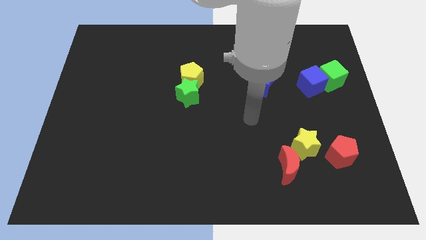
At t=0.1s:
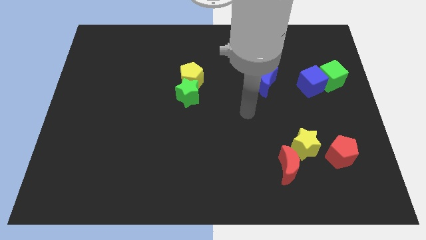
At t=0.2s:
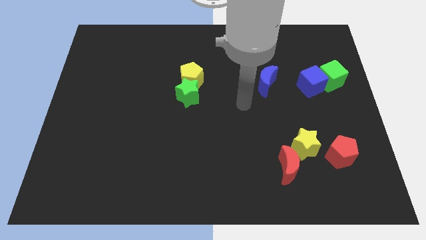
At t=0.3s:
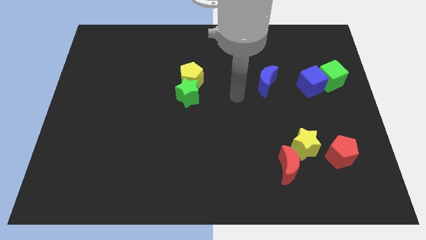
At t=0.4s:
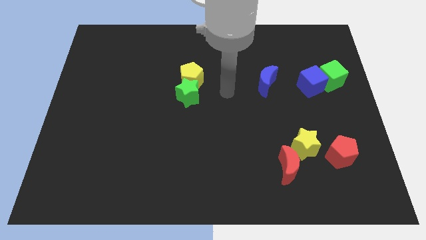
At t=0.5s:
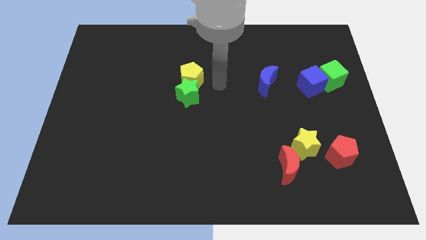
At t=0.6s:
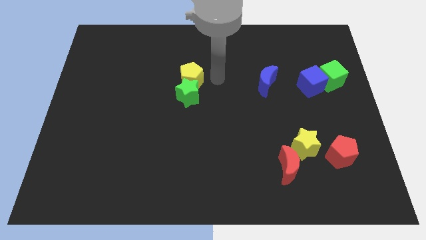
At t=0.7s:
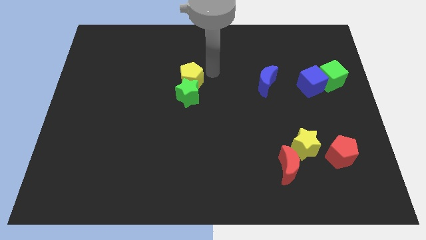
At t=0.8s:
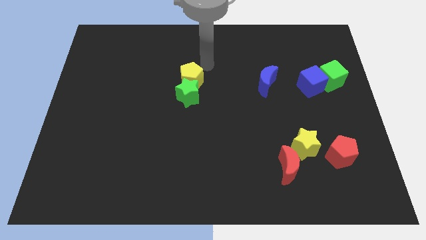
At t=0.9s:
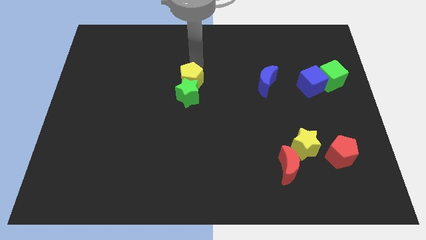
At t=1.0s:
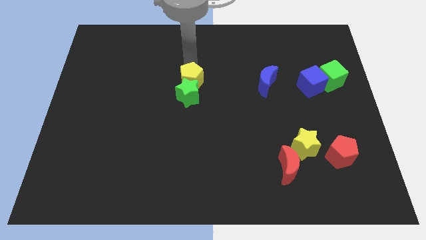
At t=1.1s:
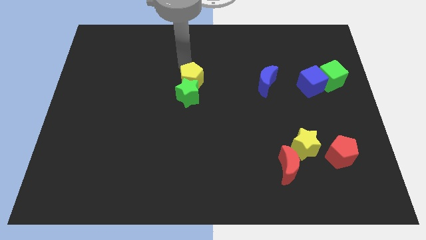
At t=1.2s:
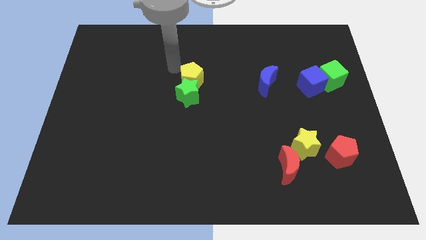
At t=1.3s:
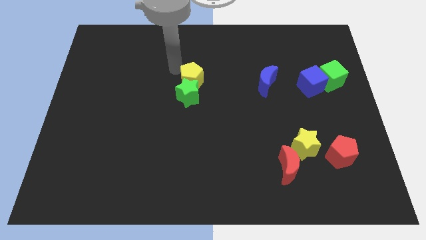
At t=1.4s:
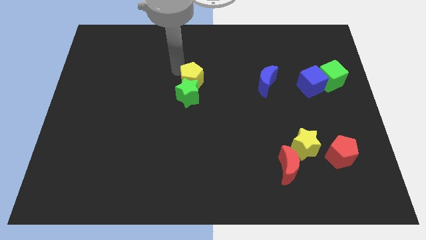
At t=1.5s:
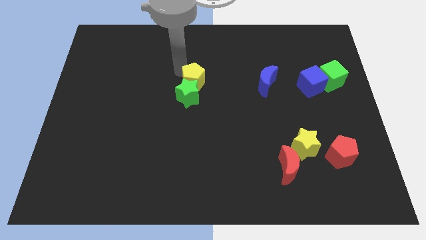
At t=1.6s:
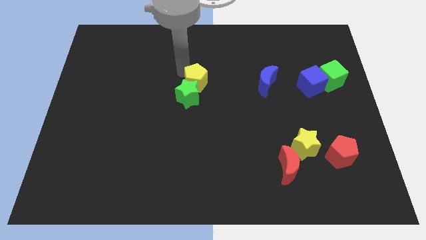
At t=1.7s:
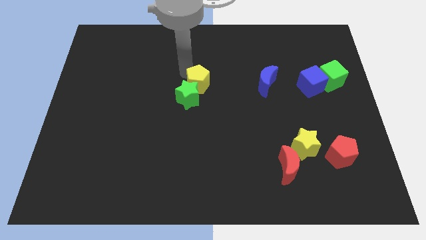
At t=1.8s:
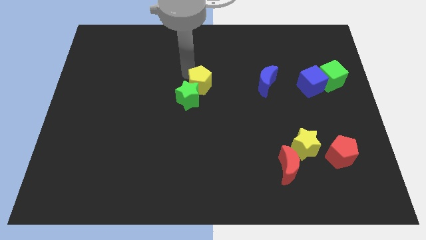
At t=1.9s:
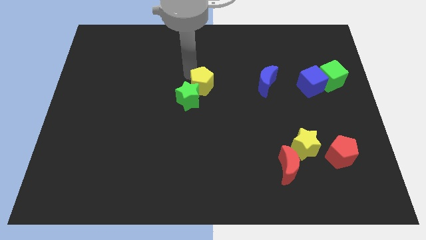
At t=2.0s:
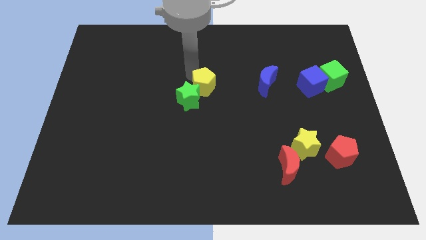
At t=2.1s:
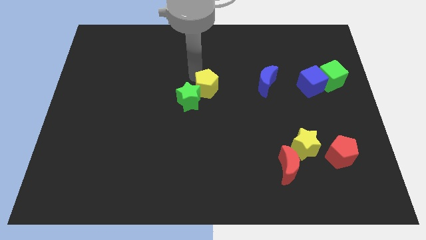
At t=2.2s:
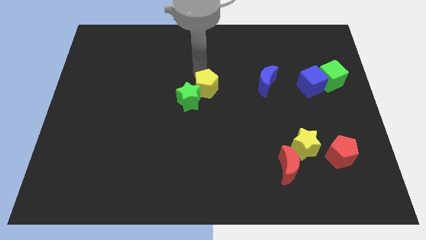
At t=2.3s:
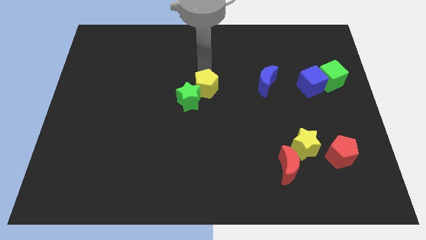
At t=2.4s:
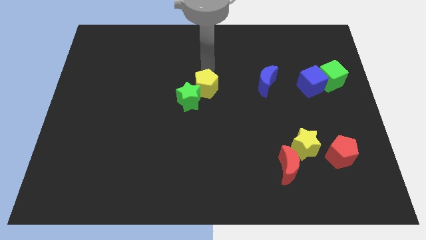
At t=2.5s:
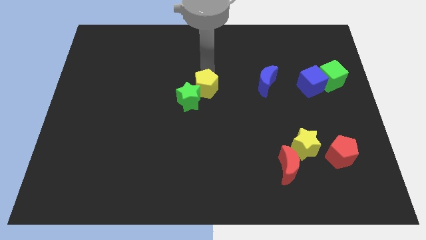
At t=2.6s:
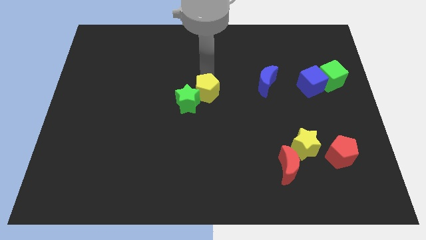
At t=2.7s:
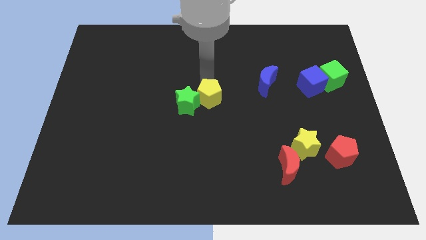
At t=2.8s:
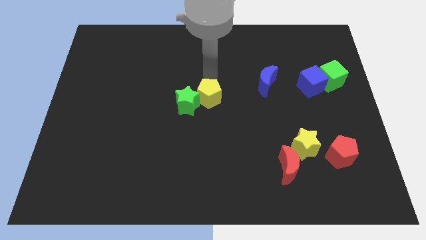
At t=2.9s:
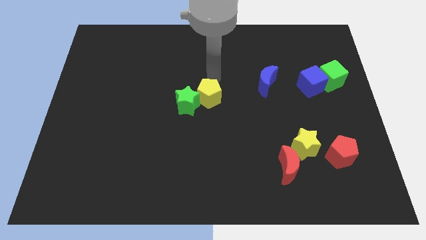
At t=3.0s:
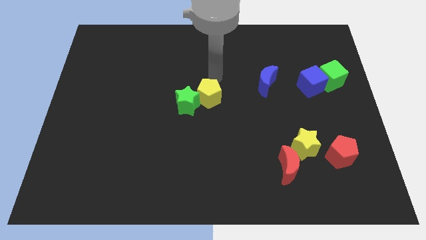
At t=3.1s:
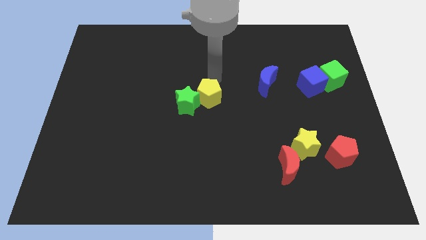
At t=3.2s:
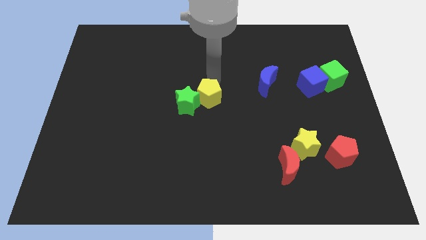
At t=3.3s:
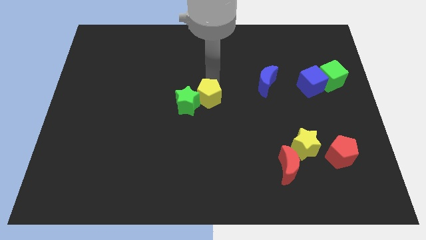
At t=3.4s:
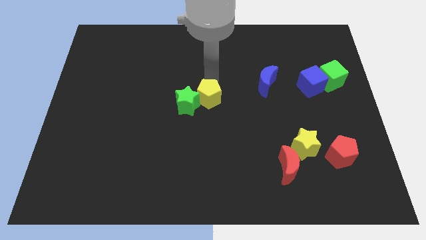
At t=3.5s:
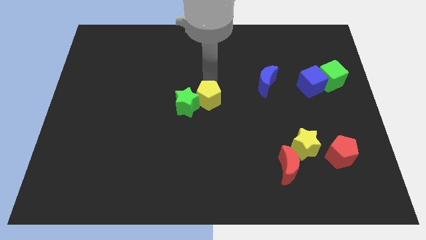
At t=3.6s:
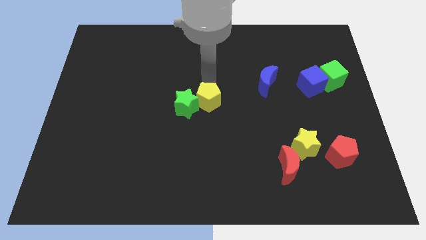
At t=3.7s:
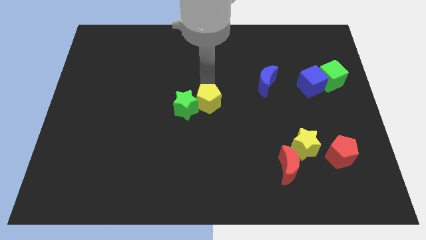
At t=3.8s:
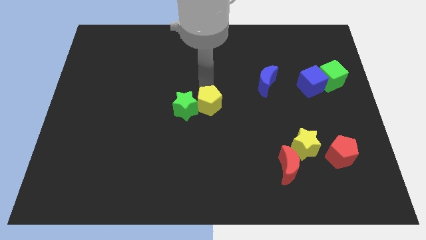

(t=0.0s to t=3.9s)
move the yellow pentagon somewhat downwards

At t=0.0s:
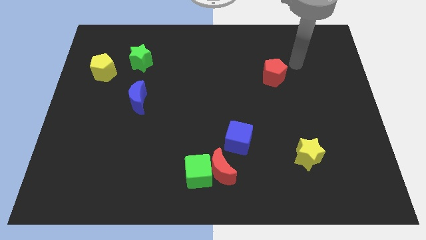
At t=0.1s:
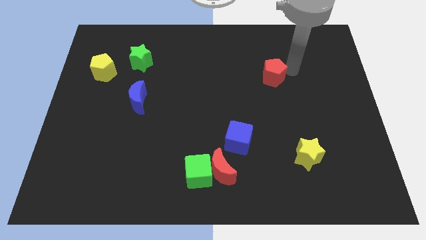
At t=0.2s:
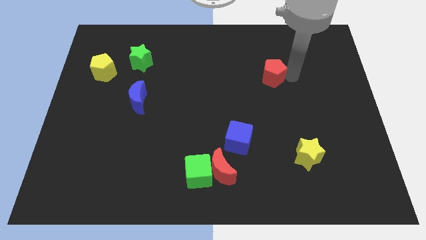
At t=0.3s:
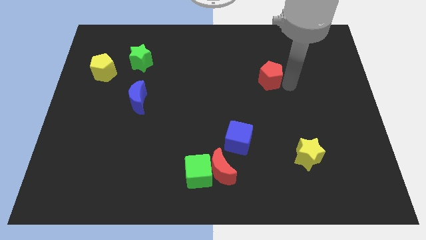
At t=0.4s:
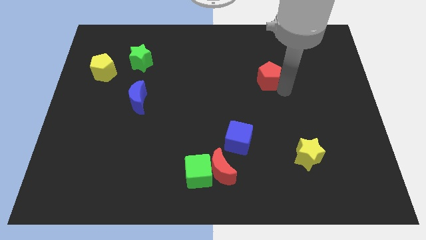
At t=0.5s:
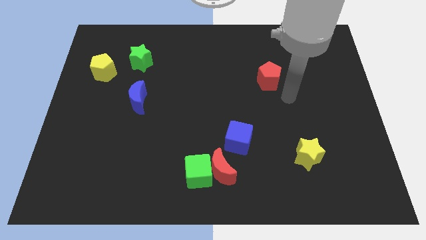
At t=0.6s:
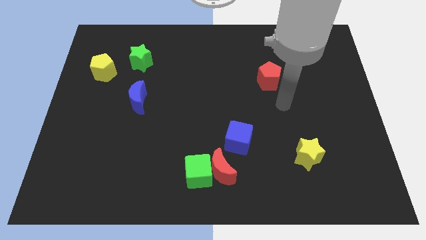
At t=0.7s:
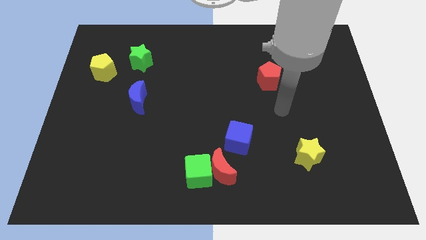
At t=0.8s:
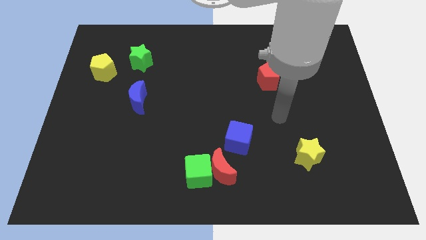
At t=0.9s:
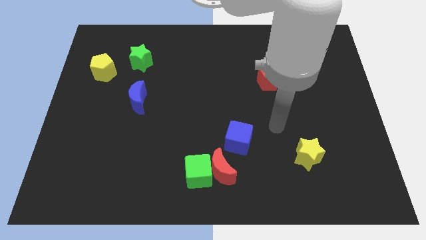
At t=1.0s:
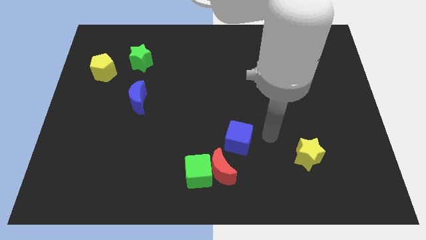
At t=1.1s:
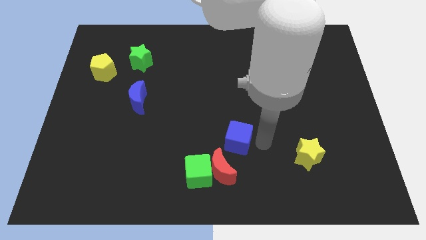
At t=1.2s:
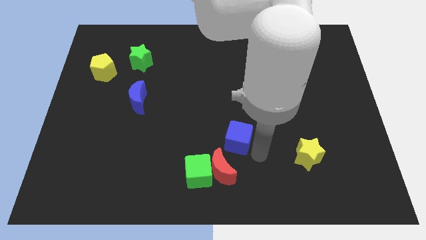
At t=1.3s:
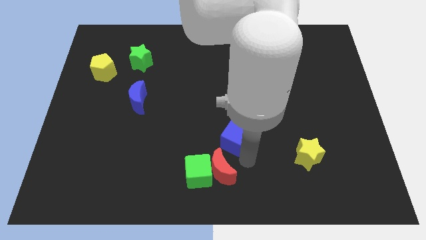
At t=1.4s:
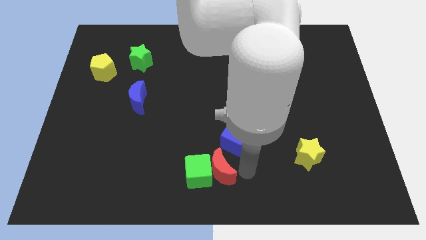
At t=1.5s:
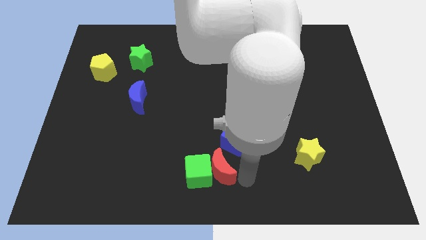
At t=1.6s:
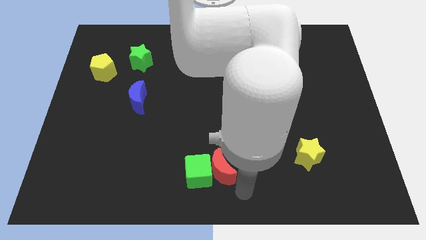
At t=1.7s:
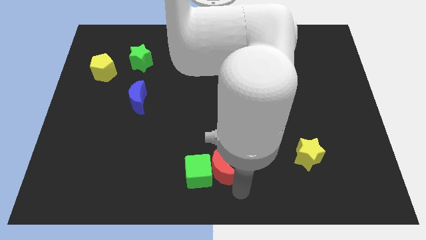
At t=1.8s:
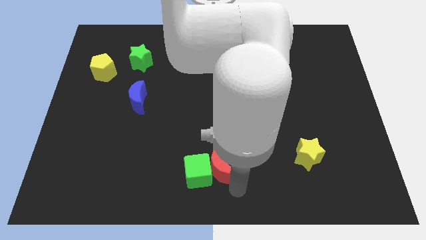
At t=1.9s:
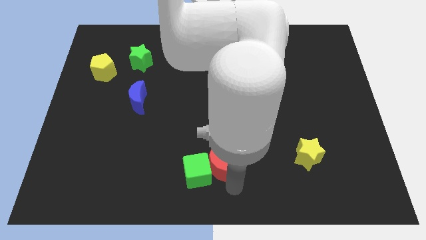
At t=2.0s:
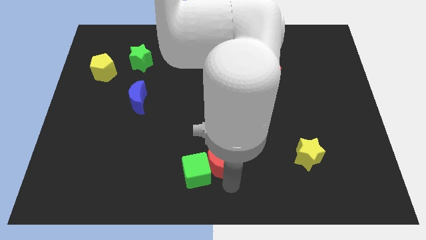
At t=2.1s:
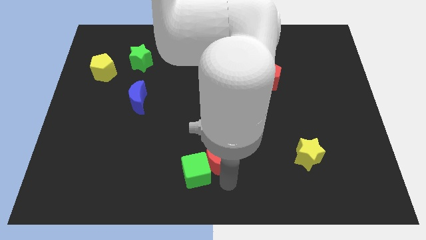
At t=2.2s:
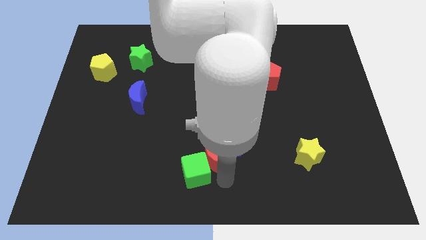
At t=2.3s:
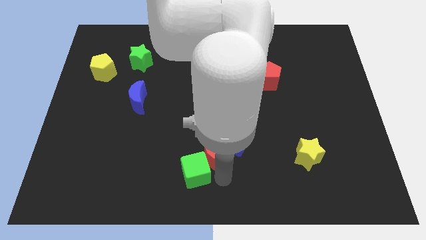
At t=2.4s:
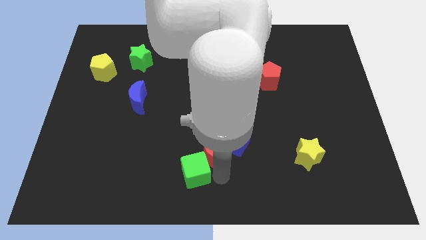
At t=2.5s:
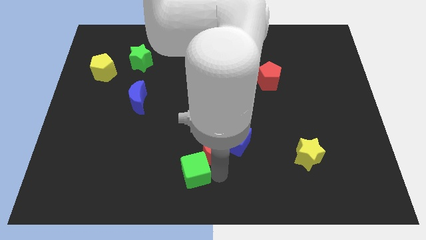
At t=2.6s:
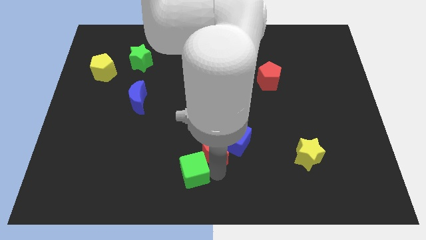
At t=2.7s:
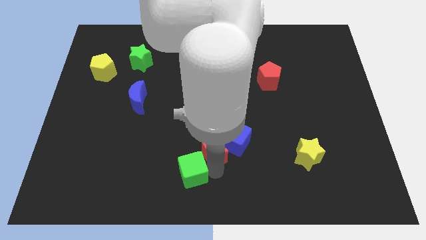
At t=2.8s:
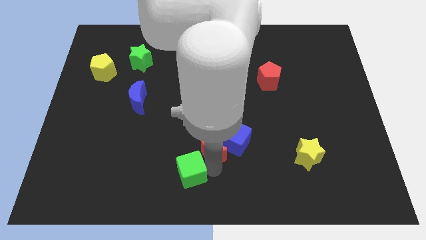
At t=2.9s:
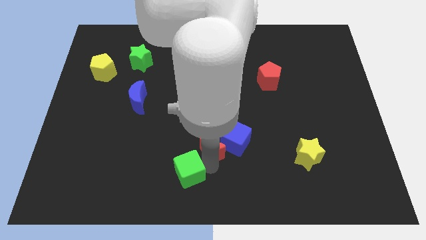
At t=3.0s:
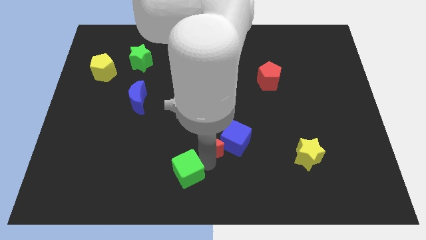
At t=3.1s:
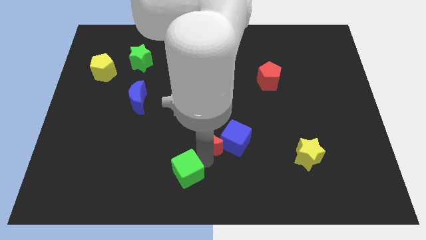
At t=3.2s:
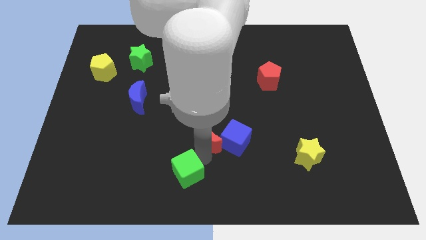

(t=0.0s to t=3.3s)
slightly move the red moon diagonally upwards and to the left

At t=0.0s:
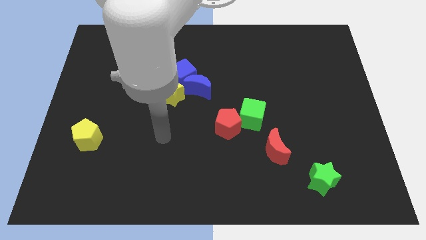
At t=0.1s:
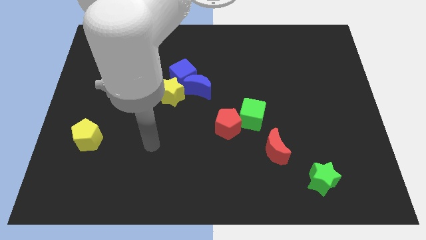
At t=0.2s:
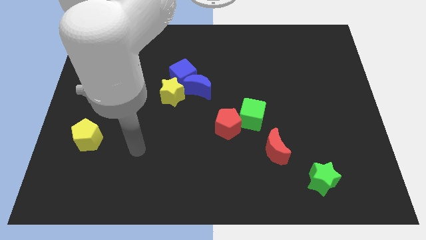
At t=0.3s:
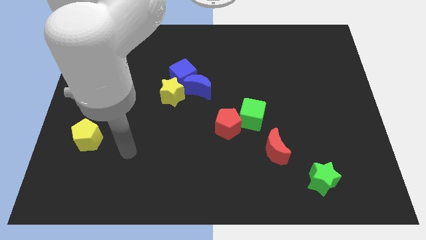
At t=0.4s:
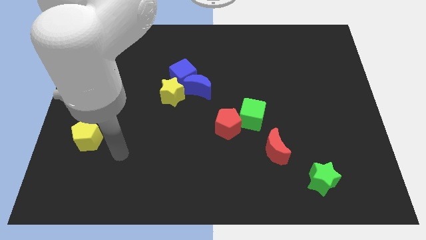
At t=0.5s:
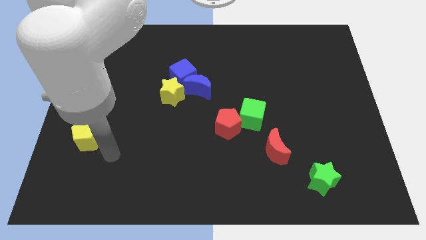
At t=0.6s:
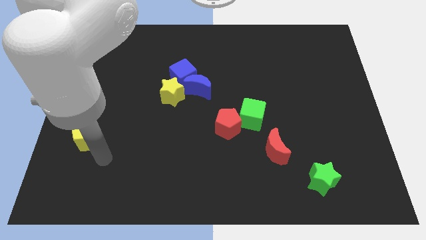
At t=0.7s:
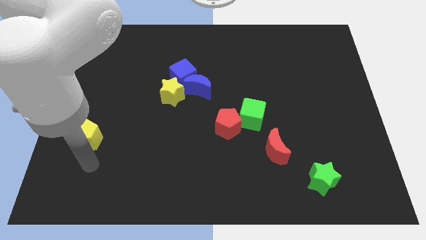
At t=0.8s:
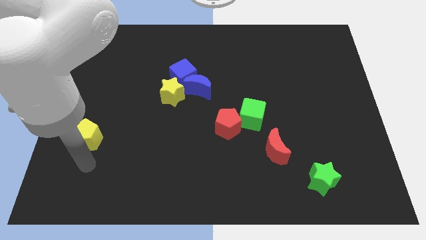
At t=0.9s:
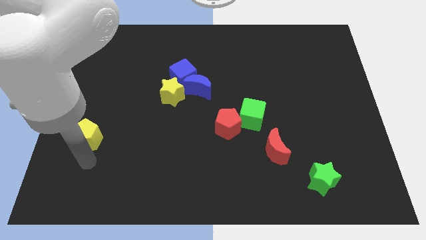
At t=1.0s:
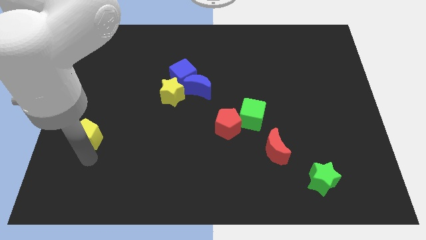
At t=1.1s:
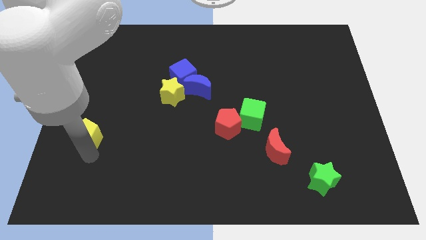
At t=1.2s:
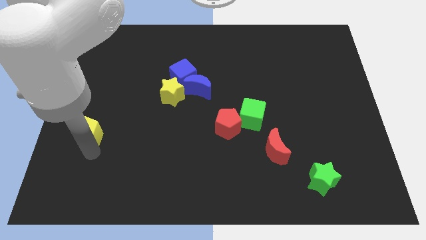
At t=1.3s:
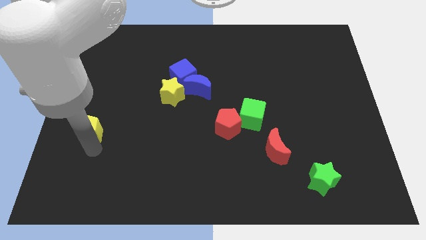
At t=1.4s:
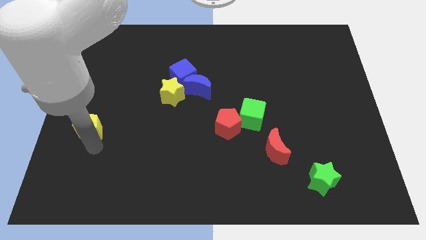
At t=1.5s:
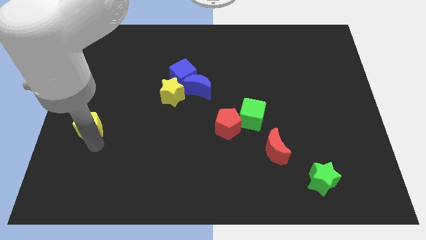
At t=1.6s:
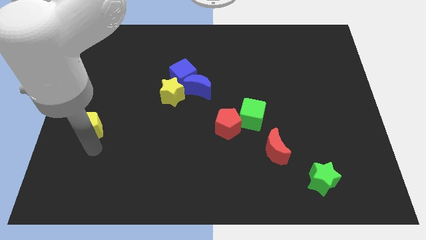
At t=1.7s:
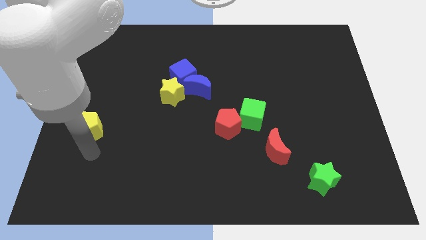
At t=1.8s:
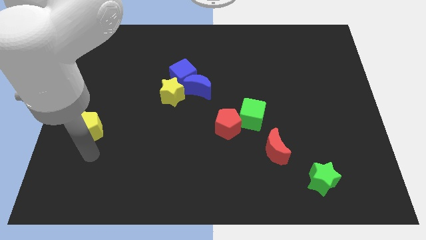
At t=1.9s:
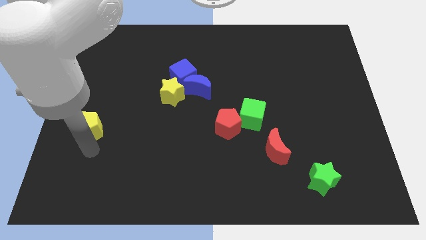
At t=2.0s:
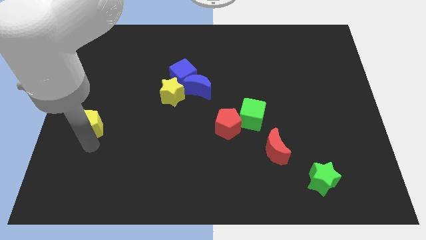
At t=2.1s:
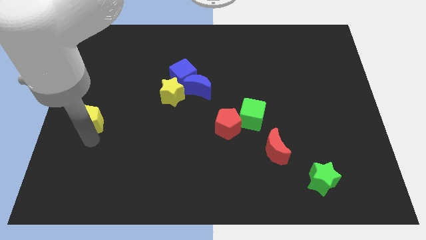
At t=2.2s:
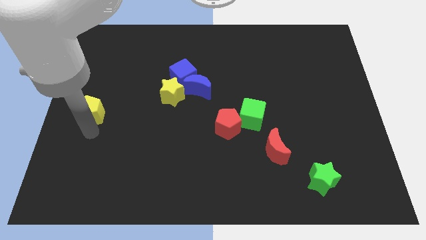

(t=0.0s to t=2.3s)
slide the yellow pentagon somewhat up
